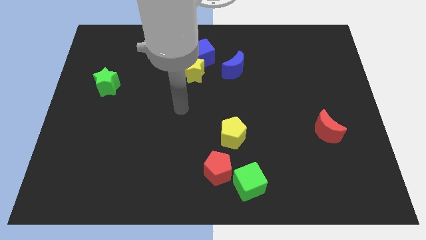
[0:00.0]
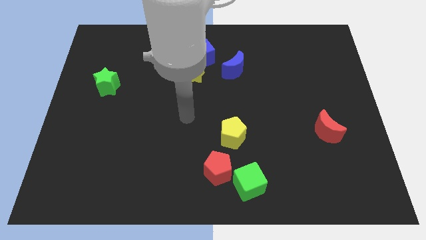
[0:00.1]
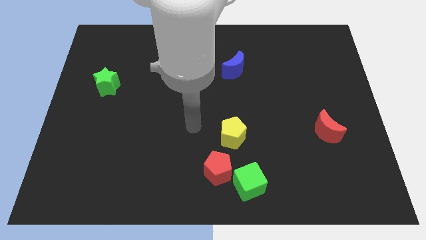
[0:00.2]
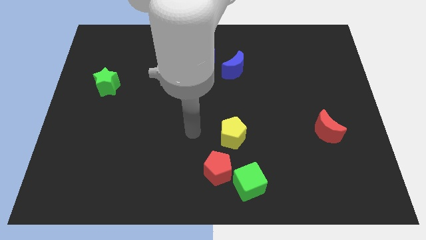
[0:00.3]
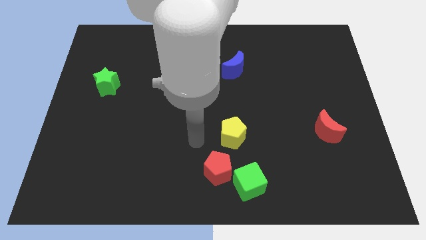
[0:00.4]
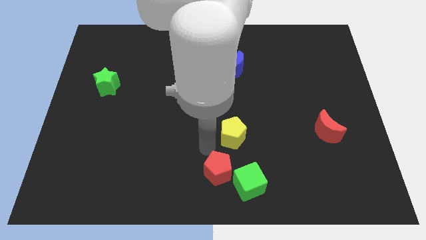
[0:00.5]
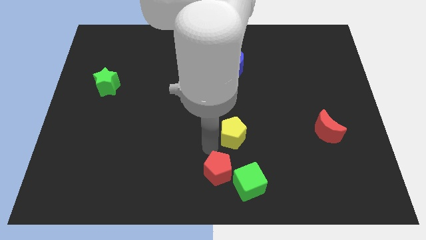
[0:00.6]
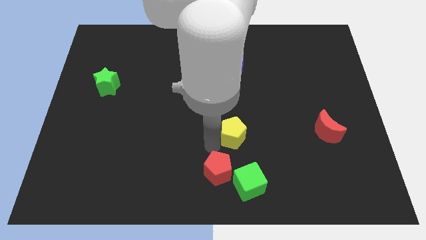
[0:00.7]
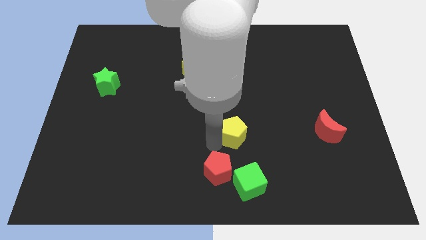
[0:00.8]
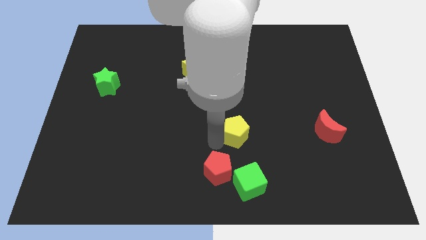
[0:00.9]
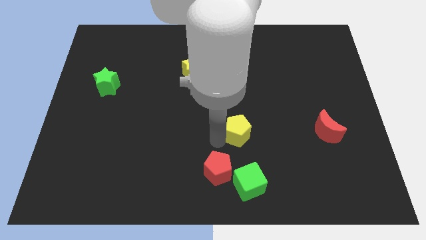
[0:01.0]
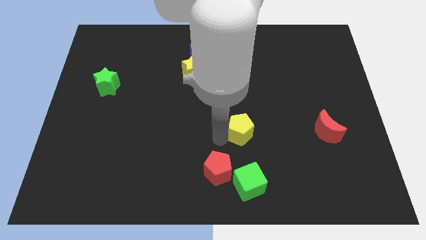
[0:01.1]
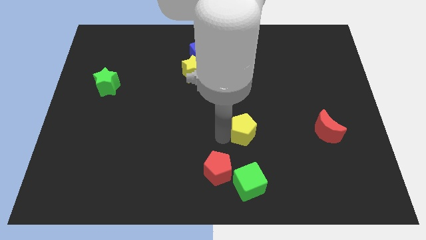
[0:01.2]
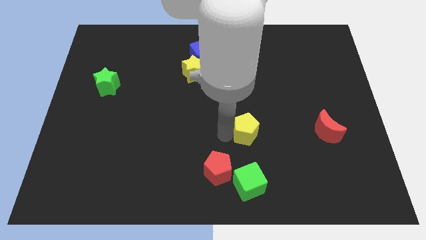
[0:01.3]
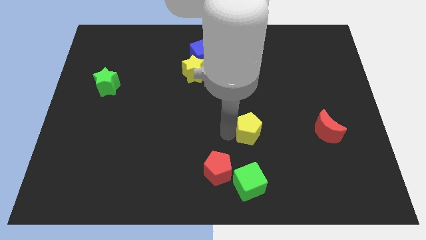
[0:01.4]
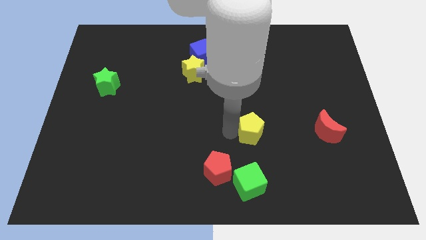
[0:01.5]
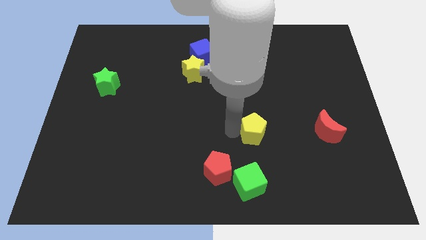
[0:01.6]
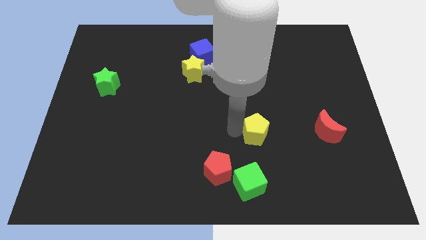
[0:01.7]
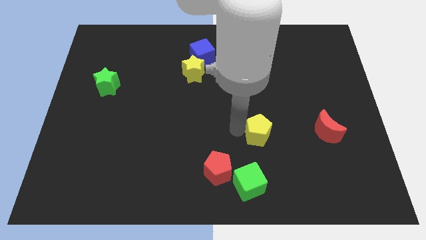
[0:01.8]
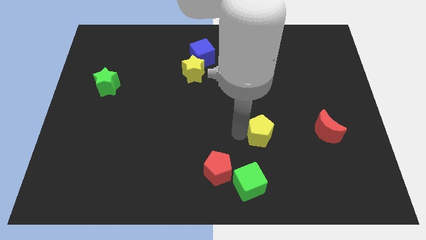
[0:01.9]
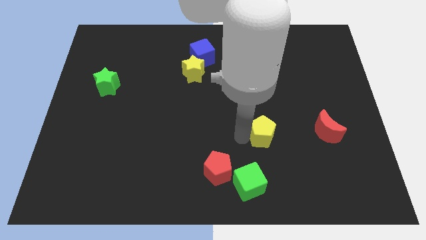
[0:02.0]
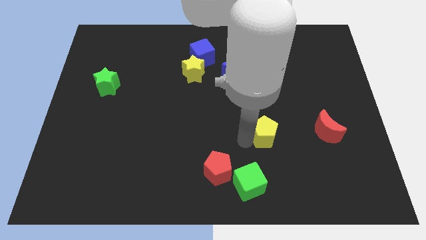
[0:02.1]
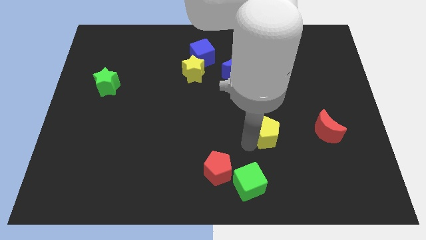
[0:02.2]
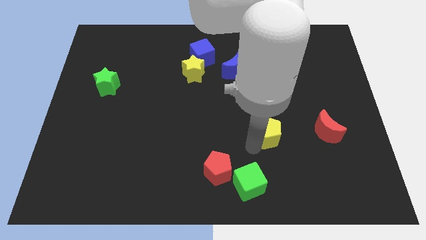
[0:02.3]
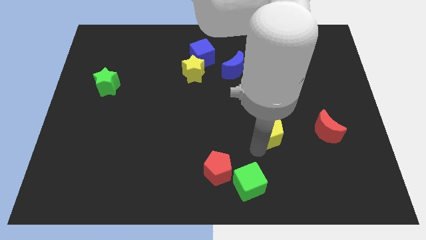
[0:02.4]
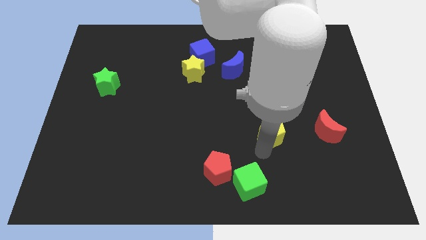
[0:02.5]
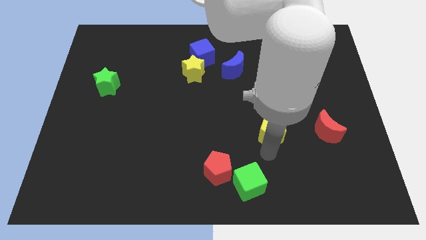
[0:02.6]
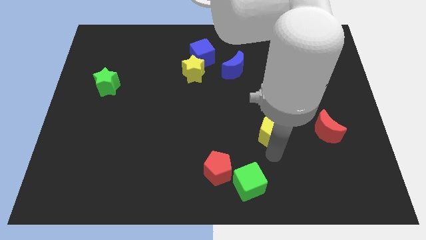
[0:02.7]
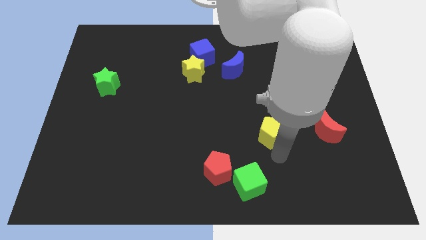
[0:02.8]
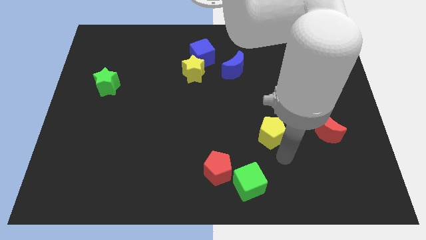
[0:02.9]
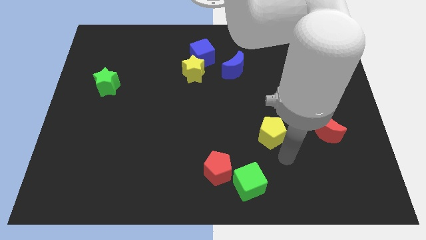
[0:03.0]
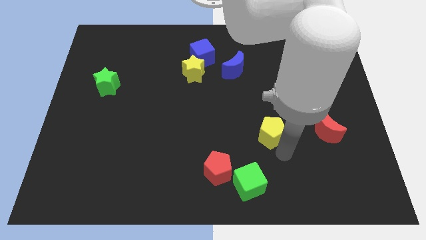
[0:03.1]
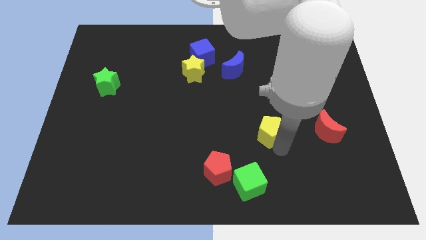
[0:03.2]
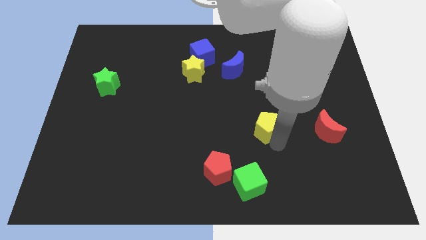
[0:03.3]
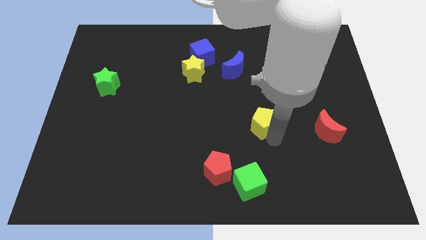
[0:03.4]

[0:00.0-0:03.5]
move the yellow pentagon a little bit diagonally up and to the right

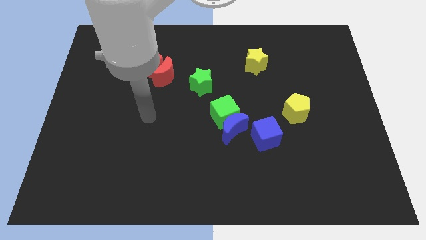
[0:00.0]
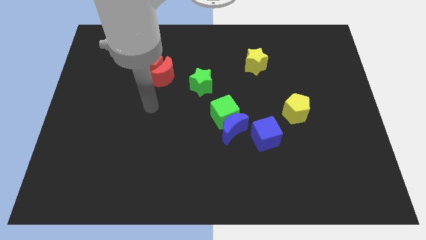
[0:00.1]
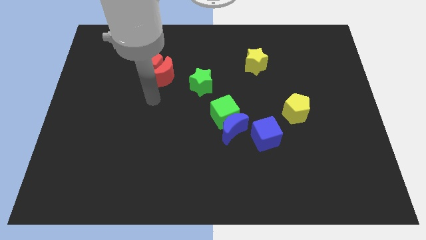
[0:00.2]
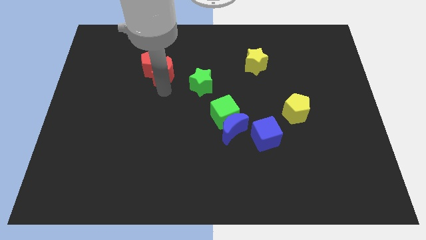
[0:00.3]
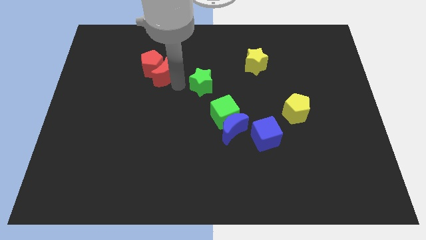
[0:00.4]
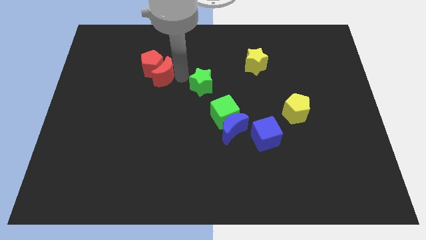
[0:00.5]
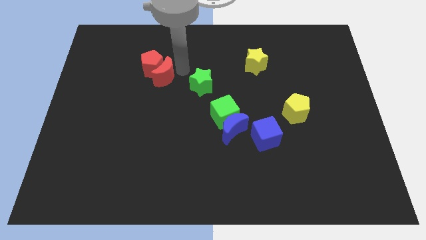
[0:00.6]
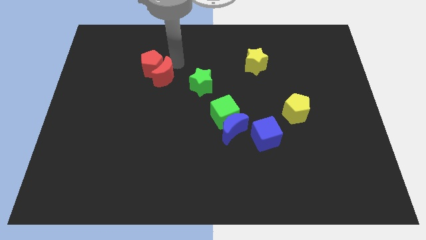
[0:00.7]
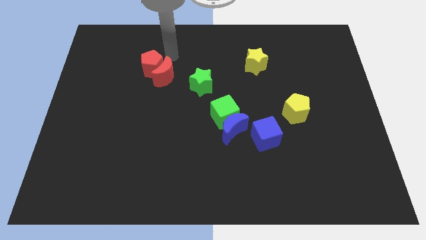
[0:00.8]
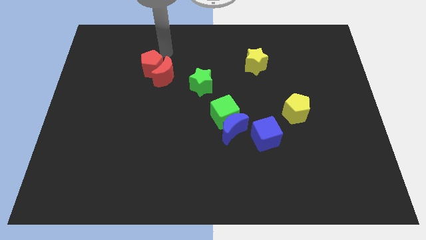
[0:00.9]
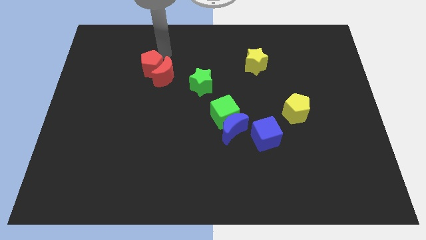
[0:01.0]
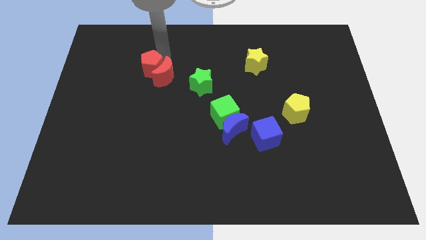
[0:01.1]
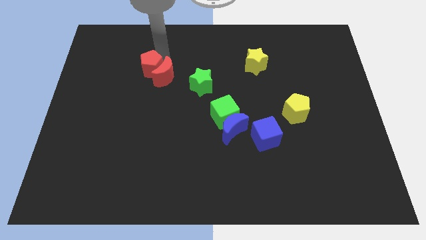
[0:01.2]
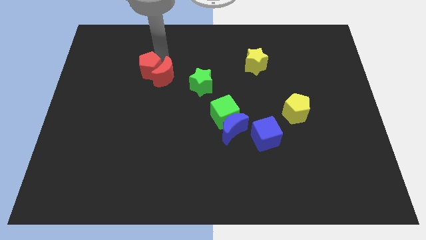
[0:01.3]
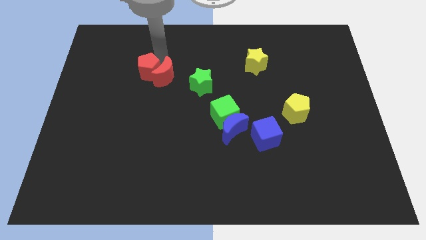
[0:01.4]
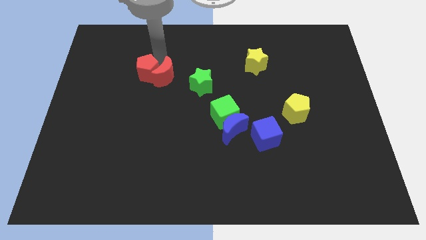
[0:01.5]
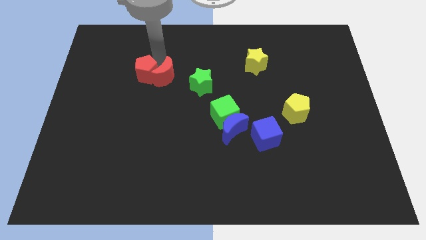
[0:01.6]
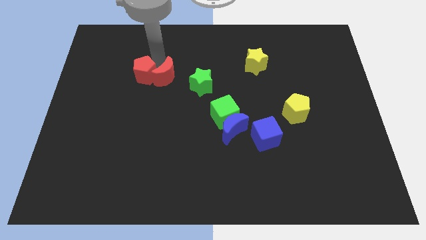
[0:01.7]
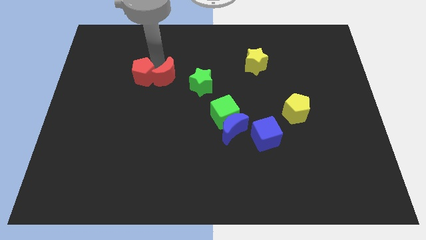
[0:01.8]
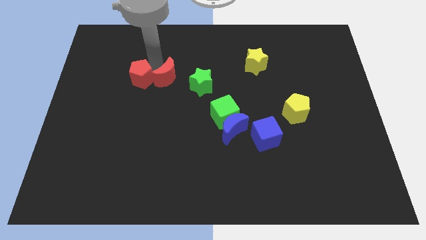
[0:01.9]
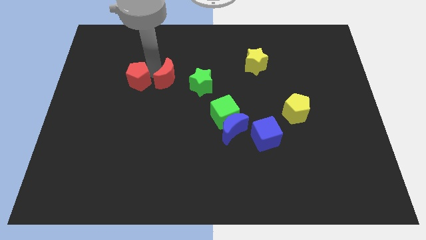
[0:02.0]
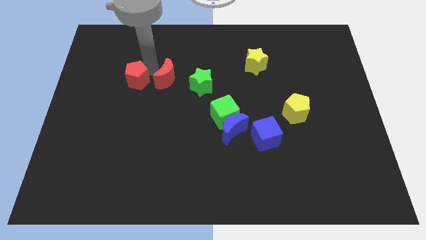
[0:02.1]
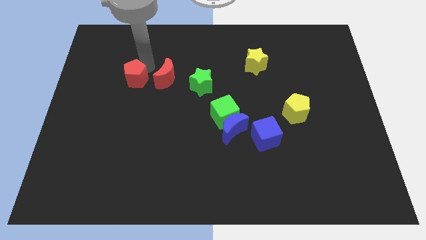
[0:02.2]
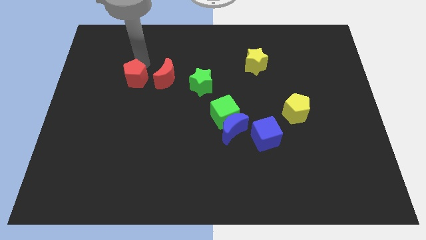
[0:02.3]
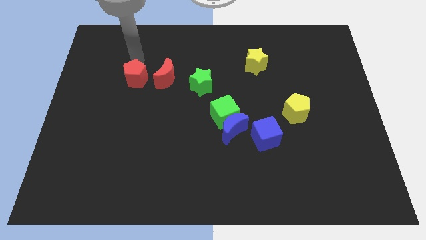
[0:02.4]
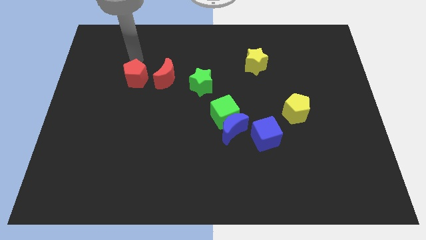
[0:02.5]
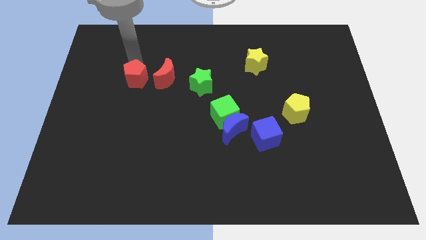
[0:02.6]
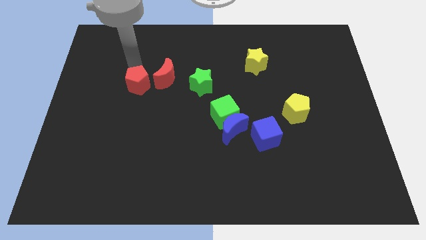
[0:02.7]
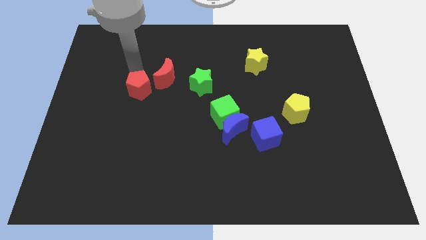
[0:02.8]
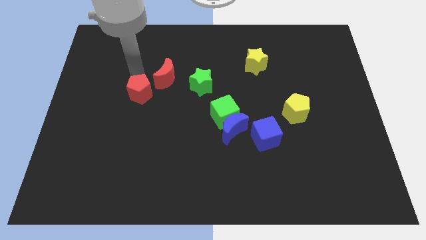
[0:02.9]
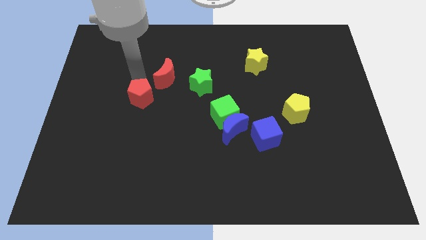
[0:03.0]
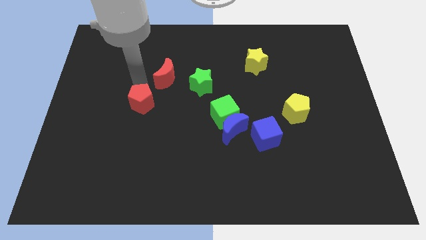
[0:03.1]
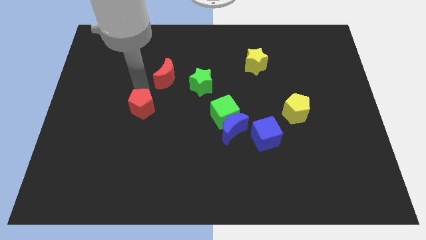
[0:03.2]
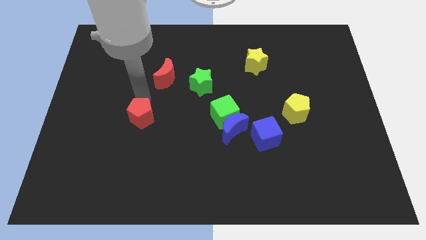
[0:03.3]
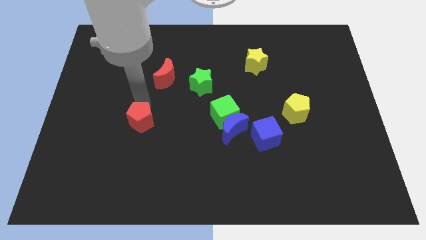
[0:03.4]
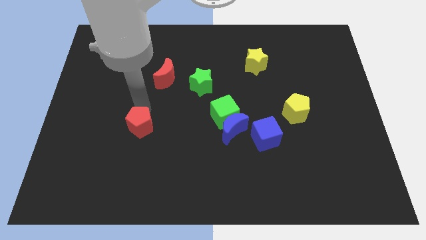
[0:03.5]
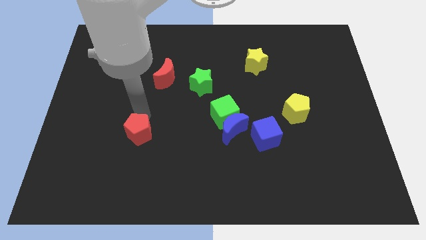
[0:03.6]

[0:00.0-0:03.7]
push the red pentagon downwards

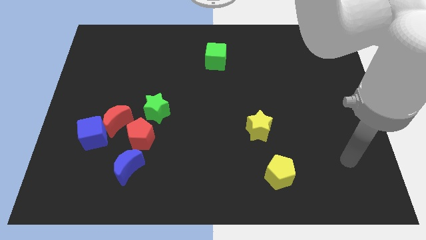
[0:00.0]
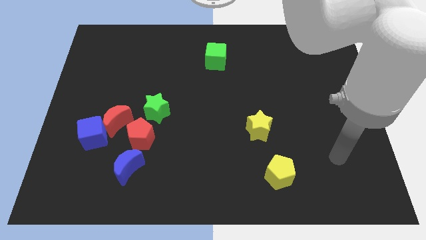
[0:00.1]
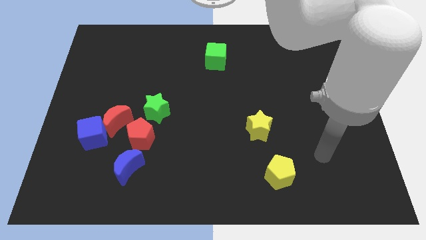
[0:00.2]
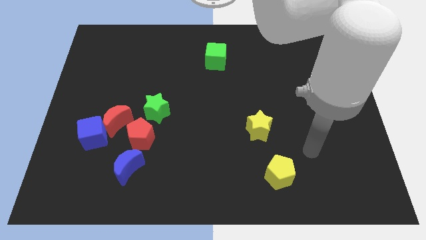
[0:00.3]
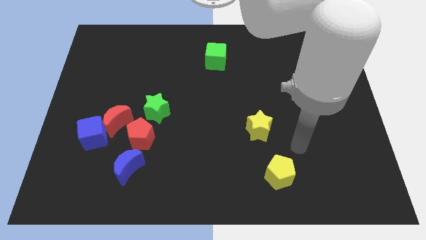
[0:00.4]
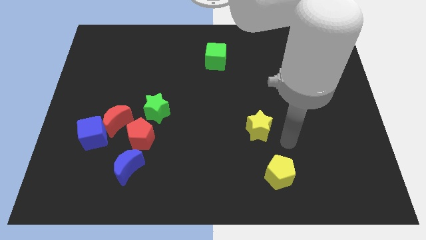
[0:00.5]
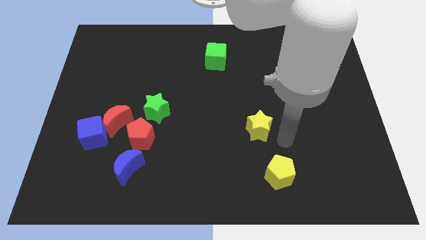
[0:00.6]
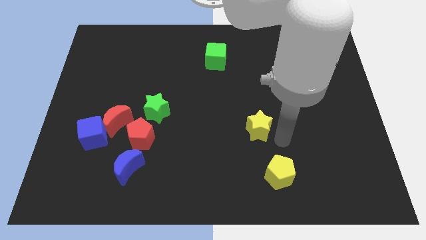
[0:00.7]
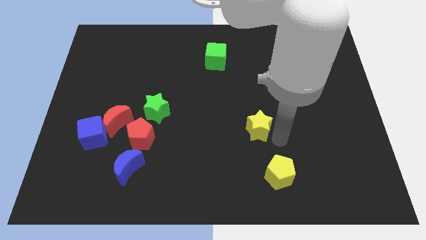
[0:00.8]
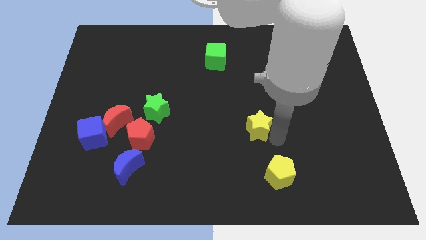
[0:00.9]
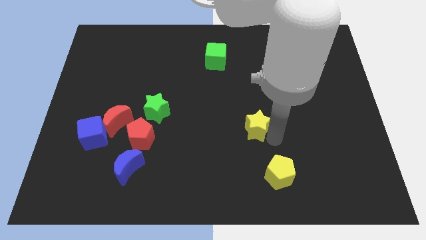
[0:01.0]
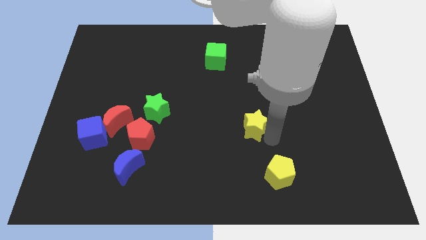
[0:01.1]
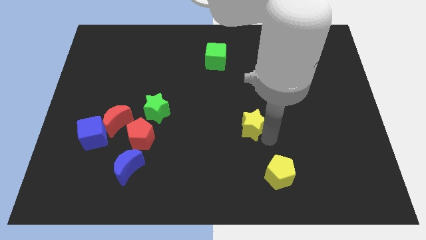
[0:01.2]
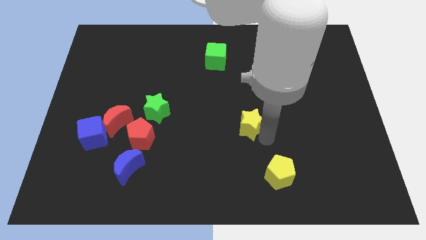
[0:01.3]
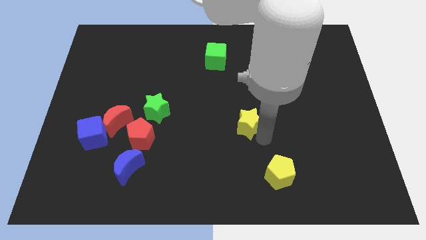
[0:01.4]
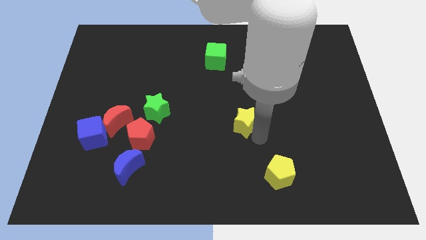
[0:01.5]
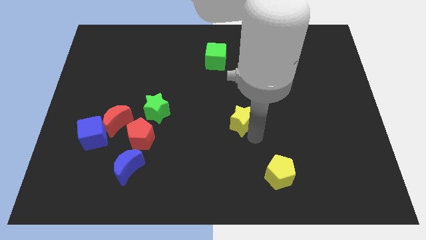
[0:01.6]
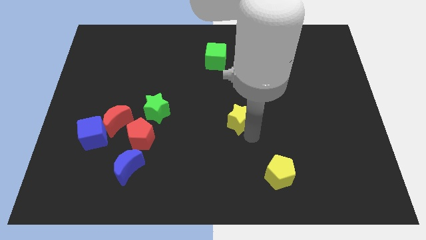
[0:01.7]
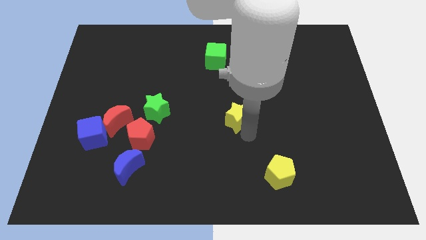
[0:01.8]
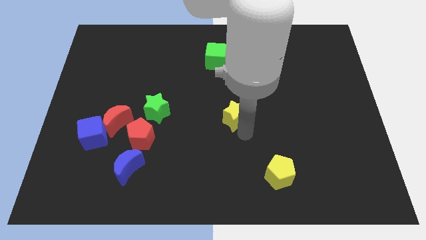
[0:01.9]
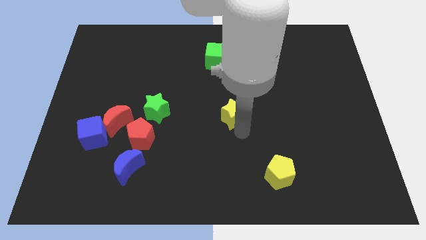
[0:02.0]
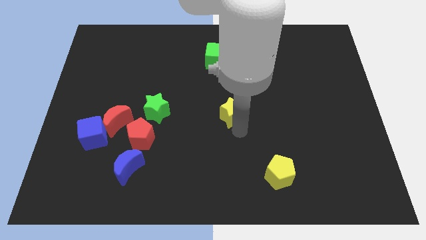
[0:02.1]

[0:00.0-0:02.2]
slightly move the yellow star up and left
